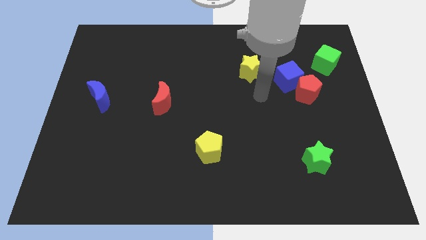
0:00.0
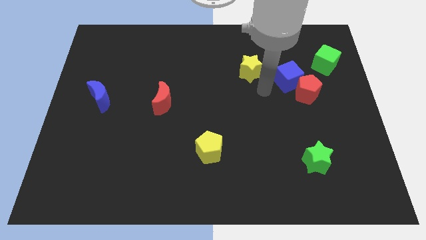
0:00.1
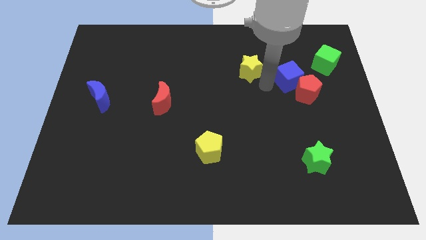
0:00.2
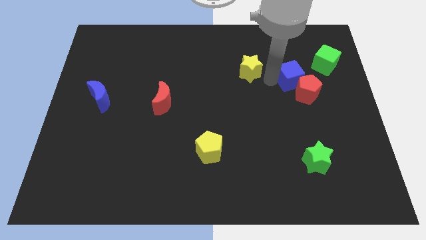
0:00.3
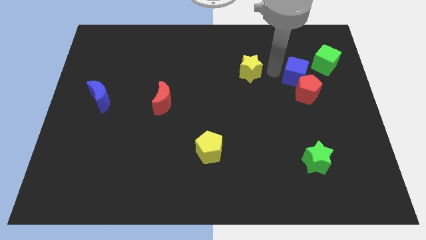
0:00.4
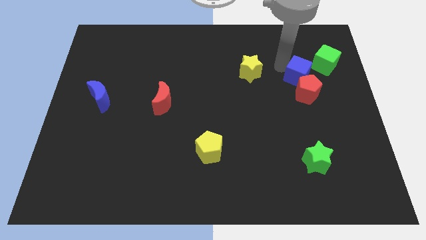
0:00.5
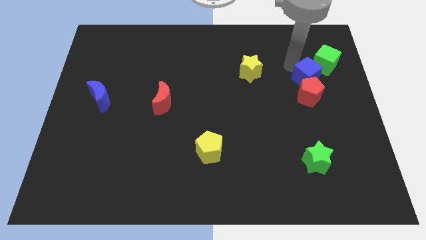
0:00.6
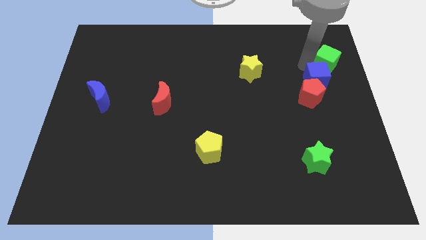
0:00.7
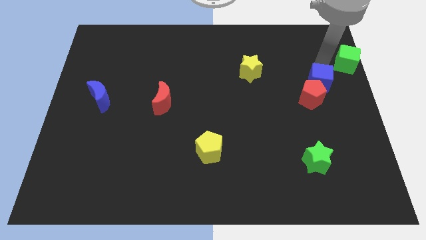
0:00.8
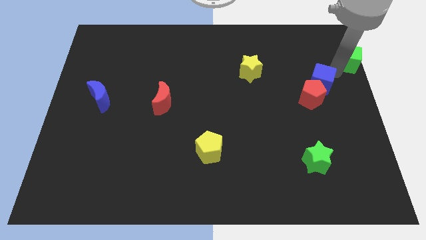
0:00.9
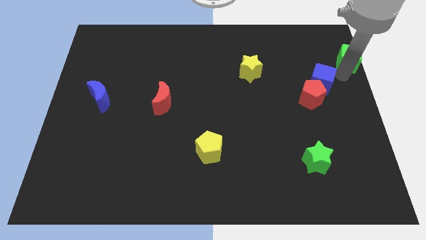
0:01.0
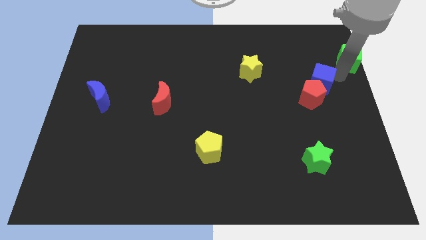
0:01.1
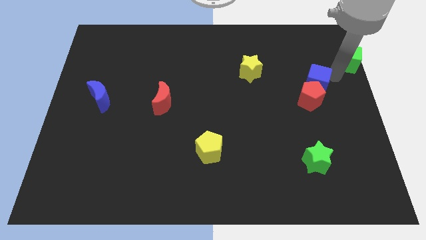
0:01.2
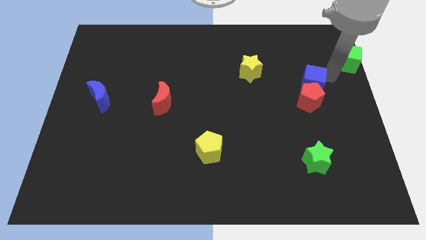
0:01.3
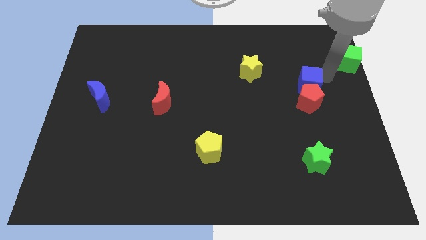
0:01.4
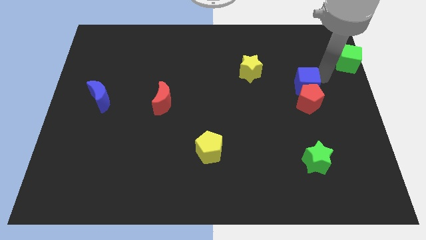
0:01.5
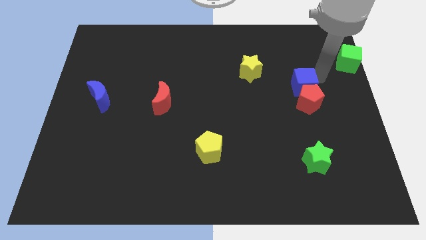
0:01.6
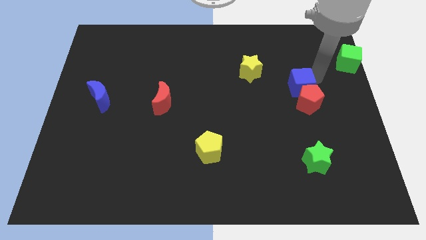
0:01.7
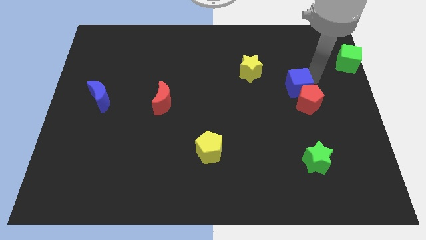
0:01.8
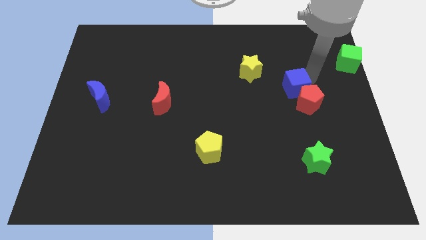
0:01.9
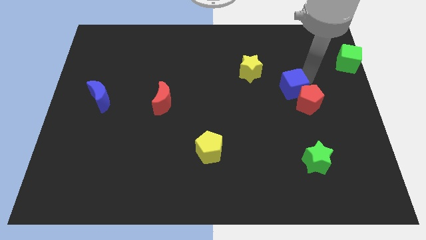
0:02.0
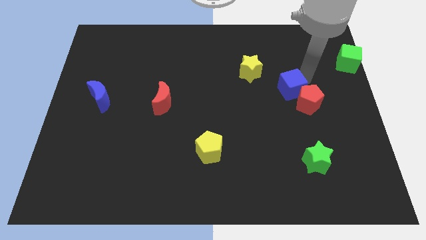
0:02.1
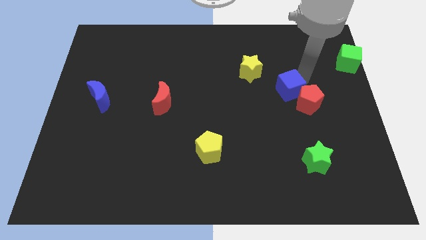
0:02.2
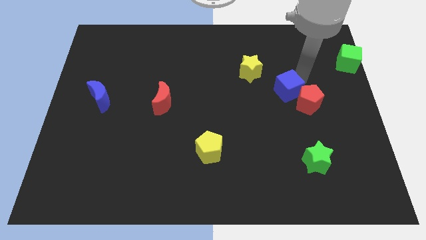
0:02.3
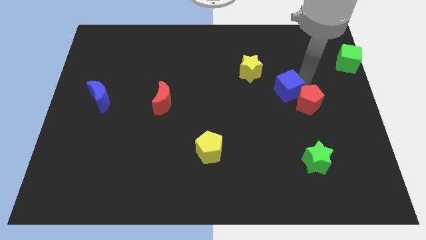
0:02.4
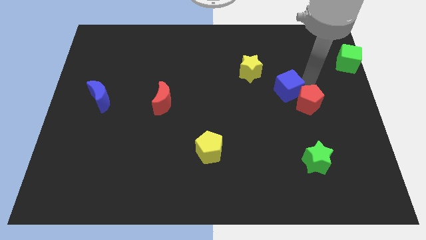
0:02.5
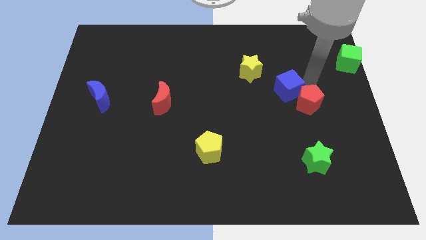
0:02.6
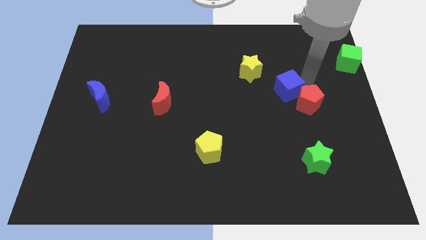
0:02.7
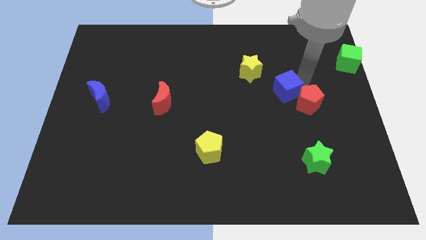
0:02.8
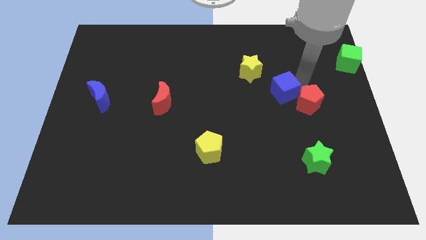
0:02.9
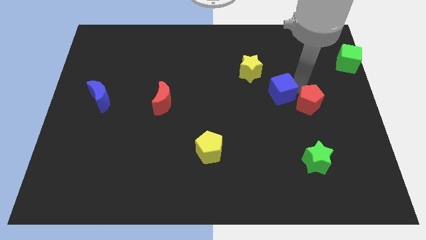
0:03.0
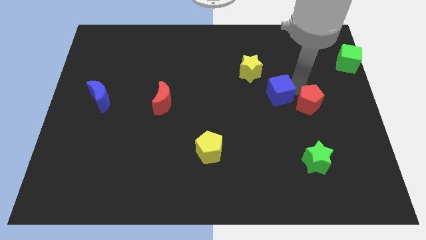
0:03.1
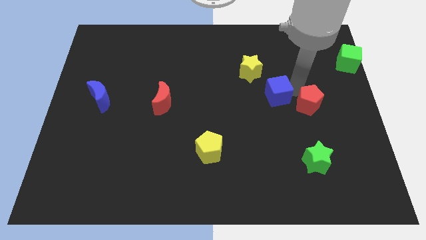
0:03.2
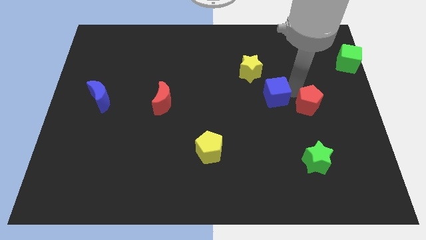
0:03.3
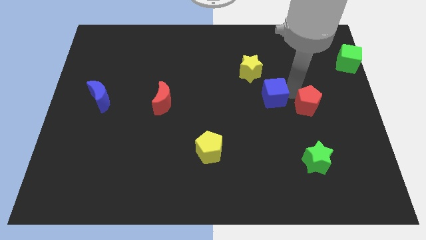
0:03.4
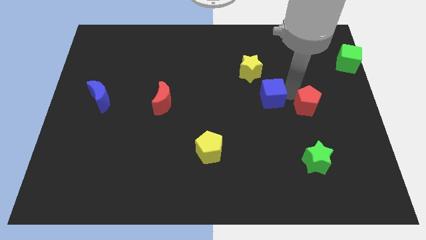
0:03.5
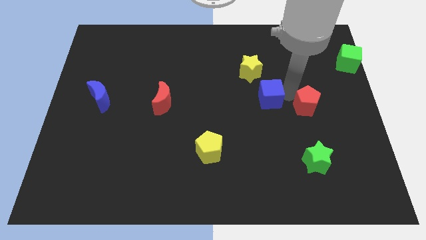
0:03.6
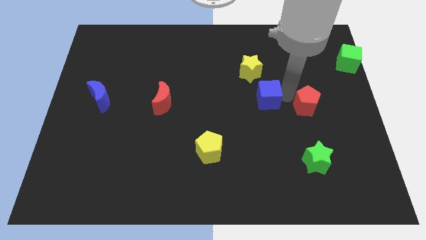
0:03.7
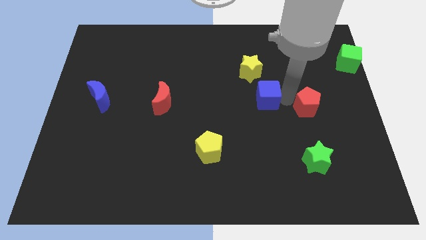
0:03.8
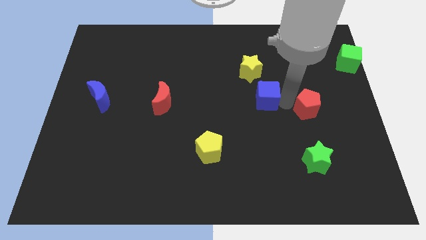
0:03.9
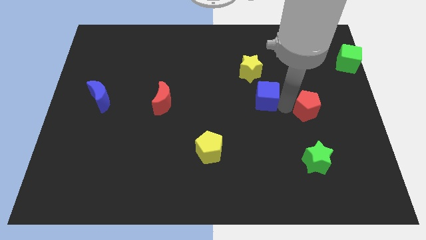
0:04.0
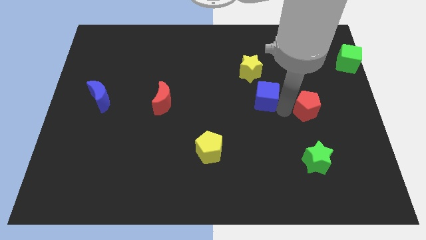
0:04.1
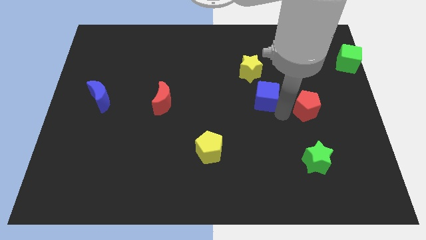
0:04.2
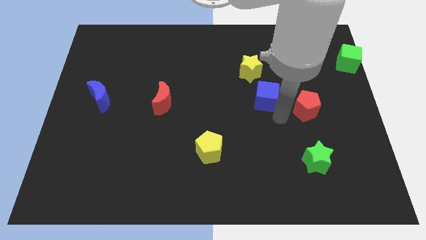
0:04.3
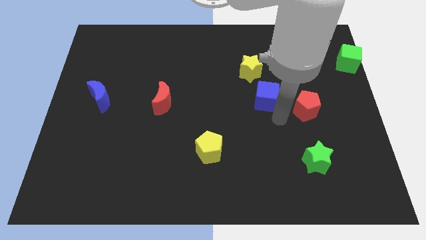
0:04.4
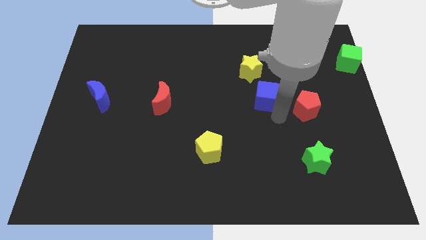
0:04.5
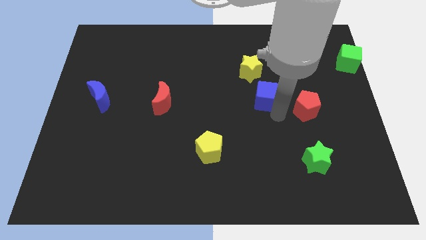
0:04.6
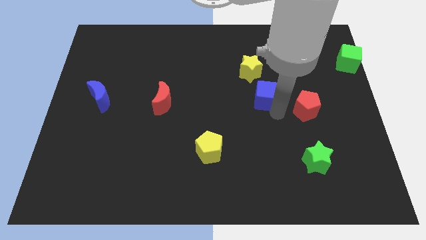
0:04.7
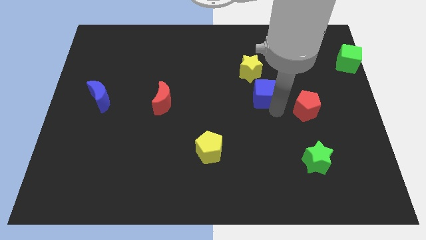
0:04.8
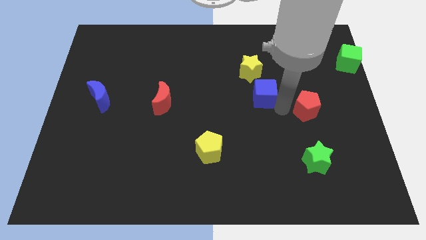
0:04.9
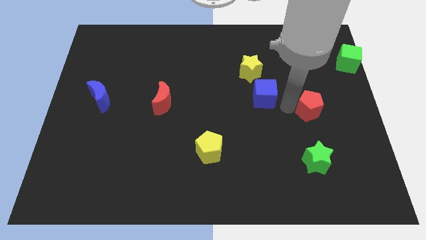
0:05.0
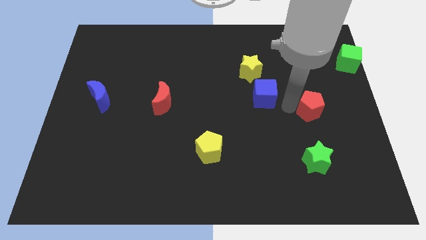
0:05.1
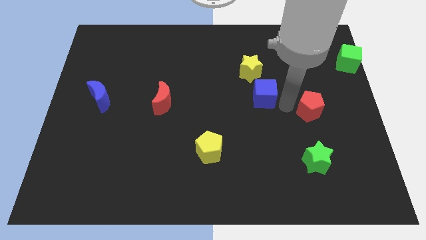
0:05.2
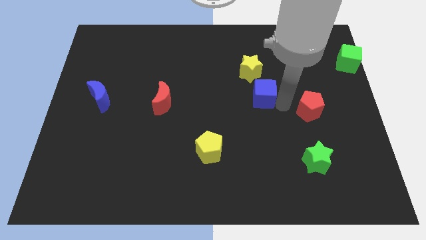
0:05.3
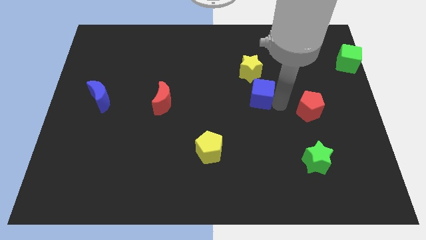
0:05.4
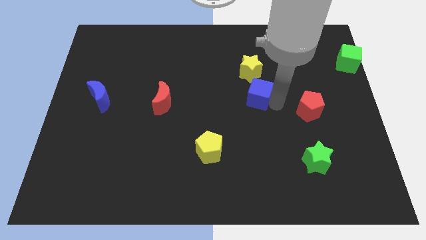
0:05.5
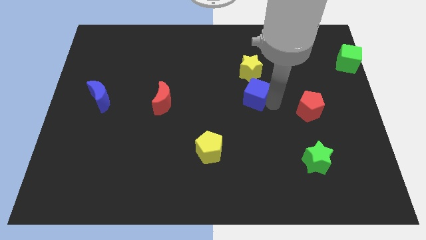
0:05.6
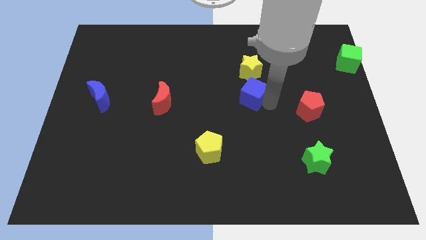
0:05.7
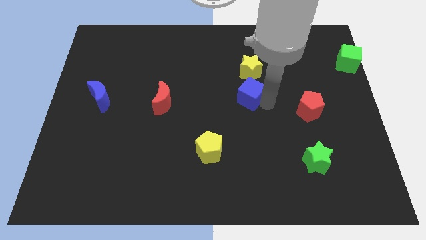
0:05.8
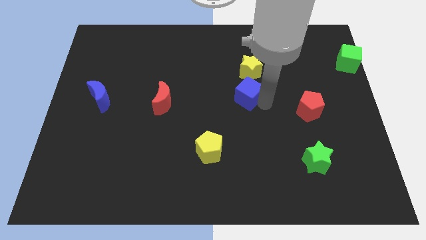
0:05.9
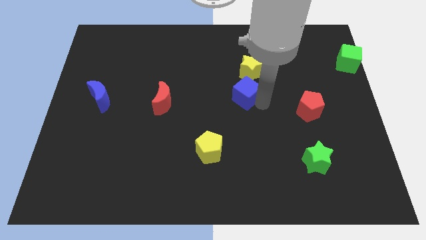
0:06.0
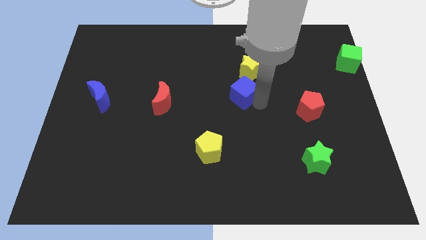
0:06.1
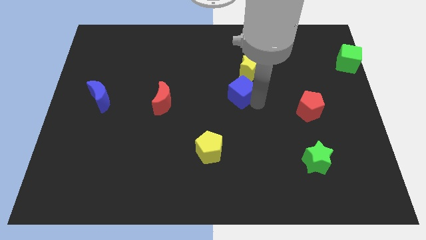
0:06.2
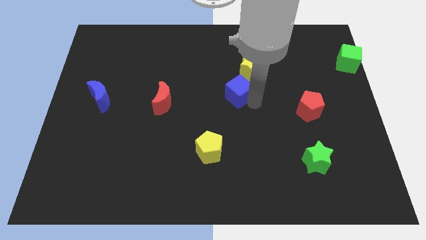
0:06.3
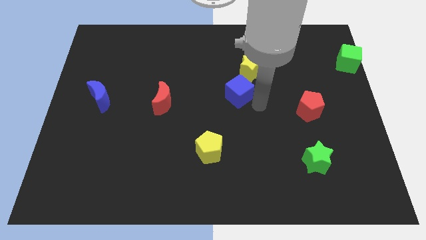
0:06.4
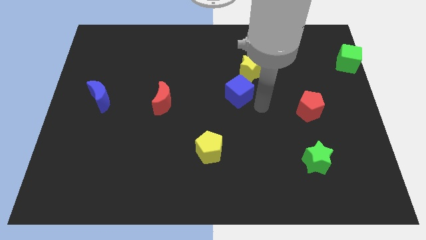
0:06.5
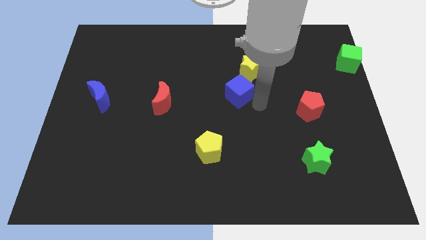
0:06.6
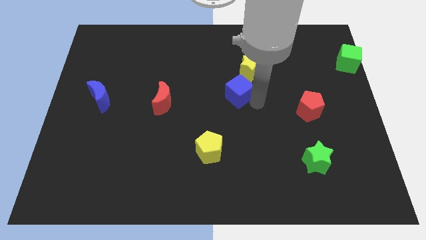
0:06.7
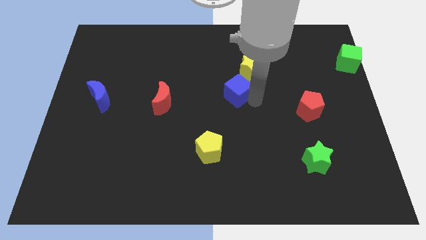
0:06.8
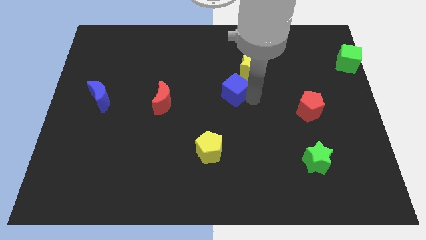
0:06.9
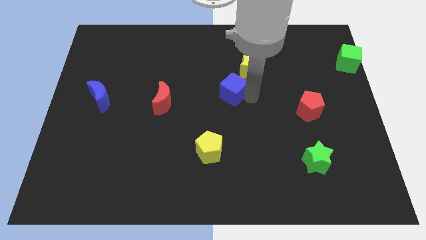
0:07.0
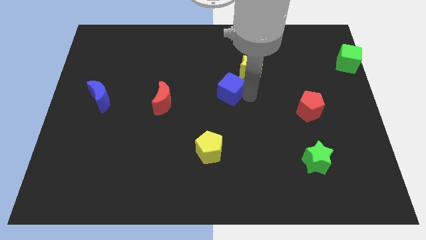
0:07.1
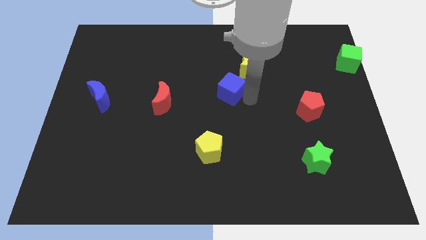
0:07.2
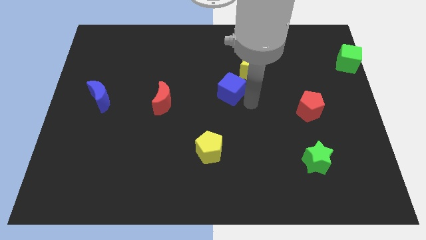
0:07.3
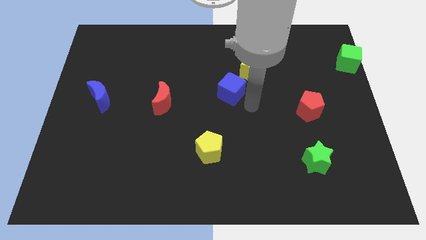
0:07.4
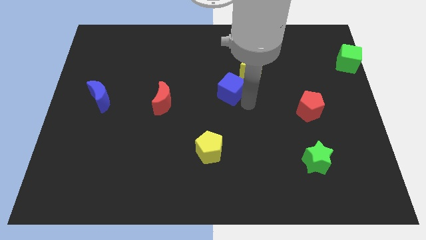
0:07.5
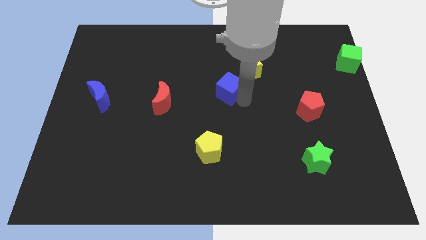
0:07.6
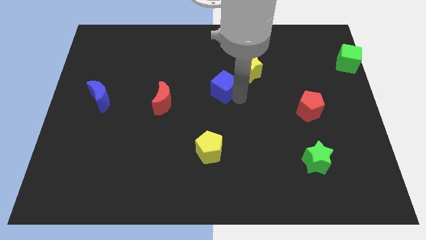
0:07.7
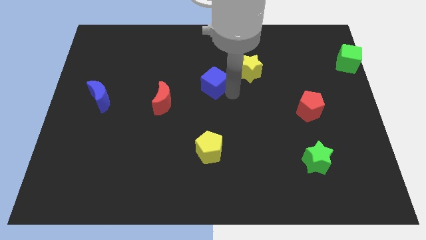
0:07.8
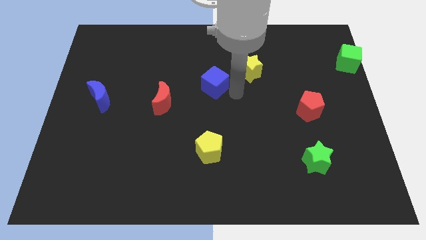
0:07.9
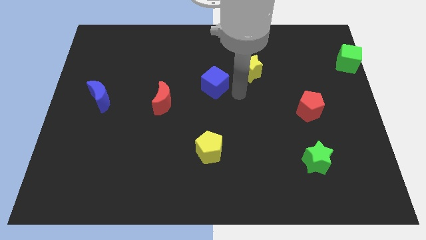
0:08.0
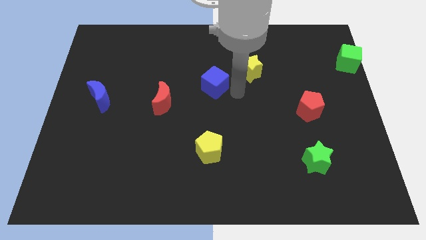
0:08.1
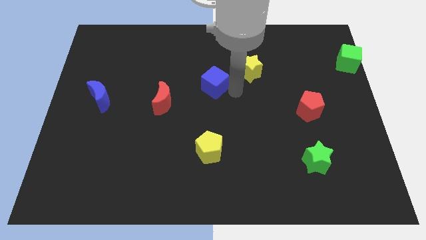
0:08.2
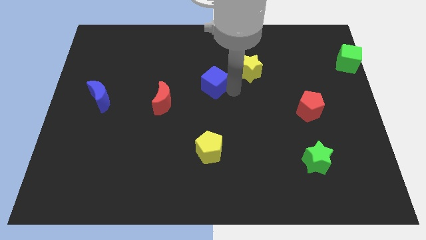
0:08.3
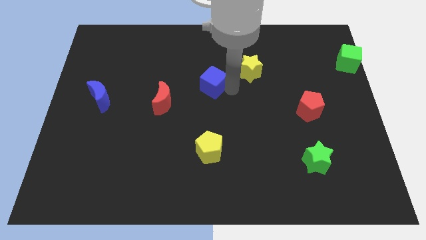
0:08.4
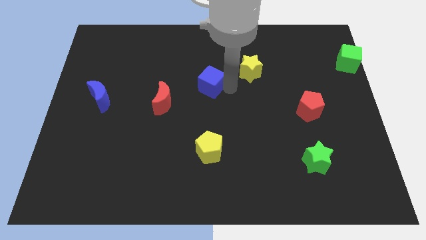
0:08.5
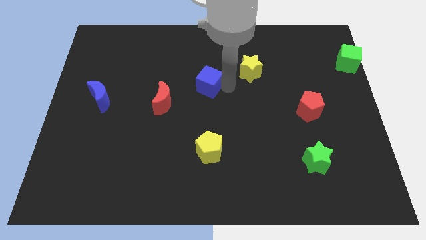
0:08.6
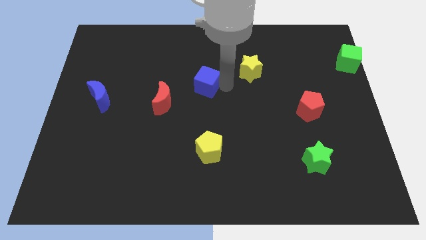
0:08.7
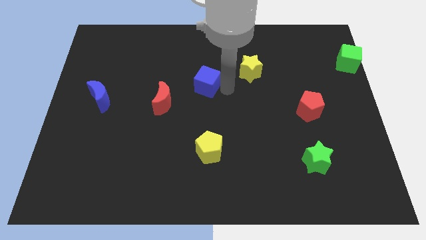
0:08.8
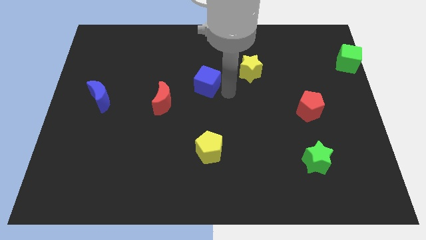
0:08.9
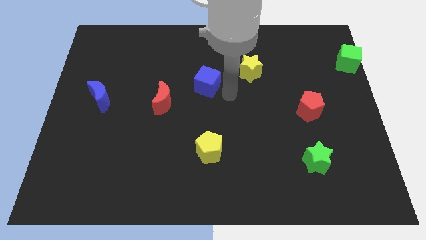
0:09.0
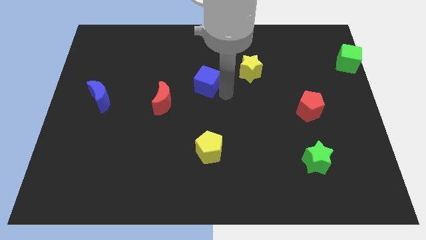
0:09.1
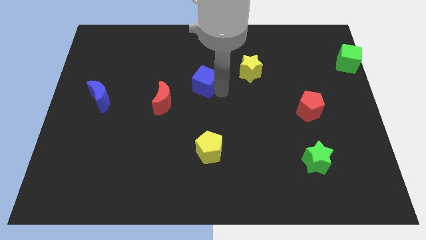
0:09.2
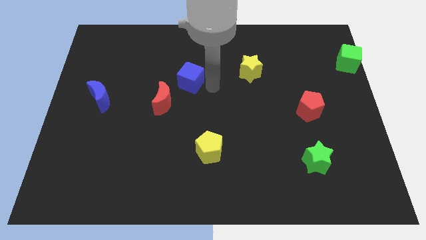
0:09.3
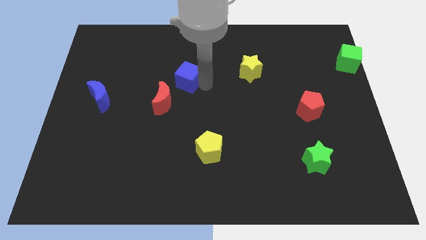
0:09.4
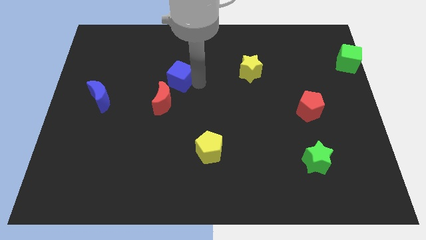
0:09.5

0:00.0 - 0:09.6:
put the blue cube to the top side of the red moon
